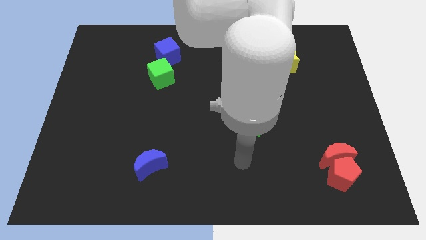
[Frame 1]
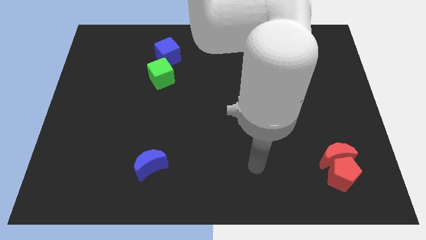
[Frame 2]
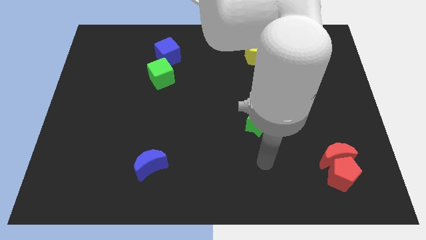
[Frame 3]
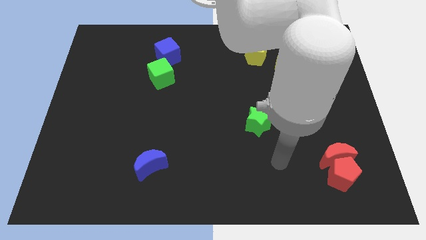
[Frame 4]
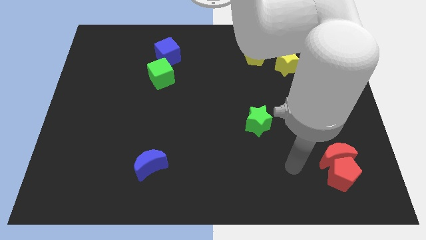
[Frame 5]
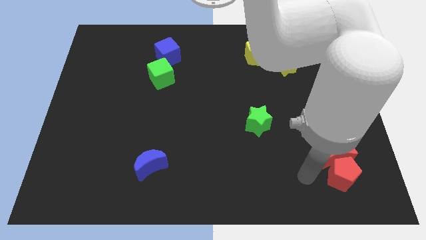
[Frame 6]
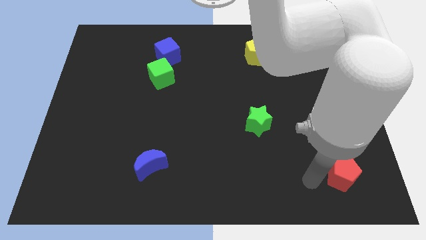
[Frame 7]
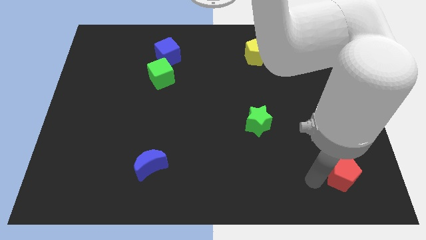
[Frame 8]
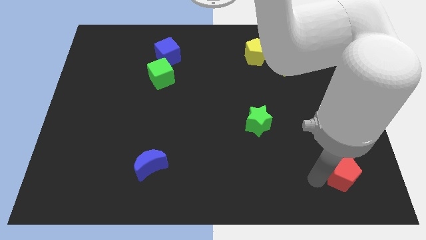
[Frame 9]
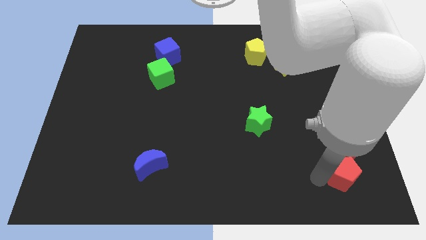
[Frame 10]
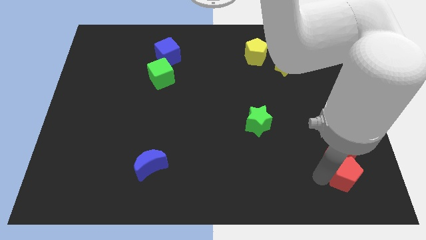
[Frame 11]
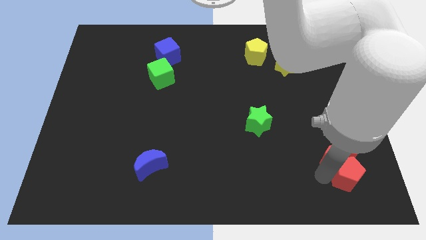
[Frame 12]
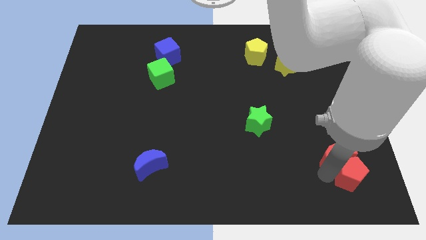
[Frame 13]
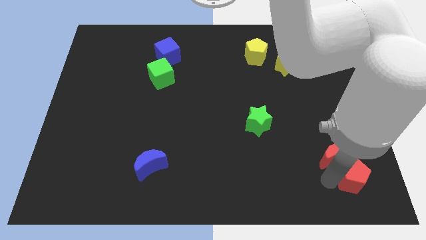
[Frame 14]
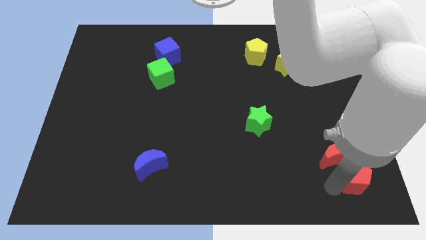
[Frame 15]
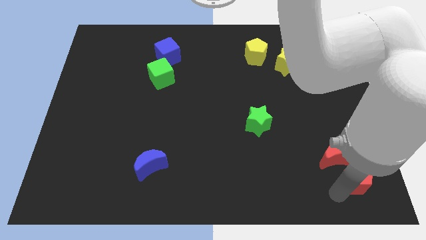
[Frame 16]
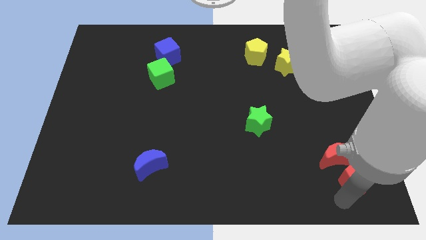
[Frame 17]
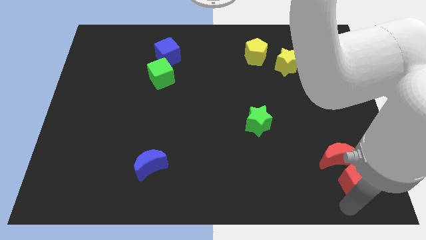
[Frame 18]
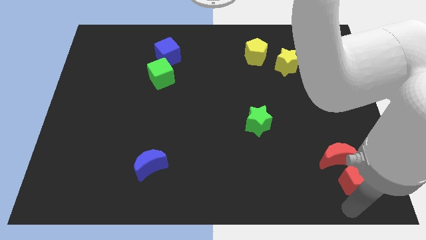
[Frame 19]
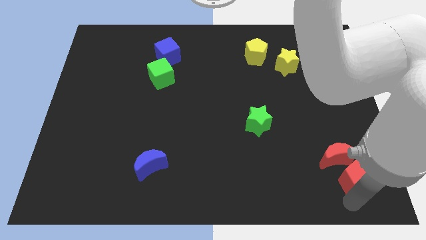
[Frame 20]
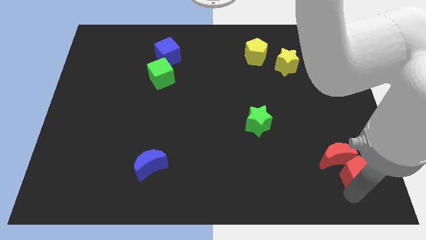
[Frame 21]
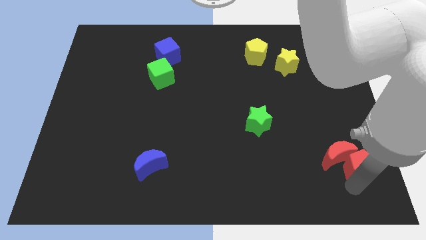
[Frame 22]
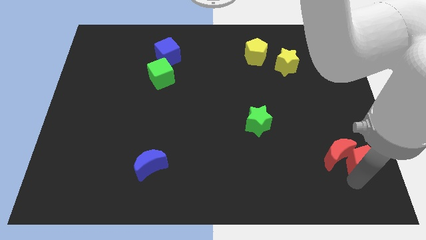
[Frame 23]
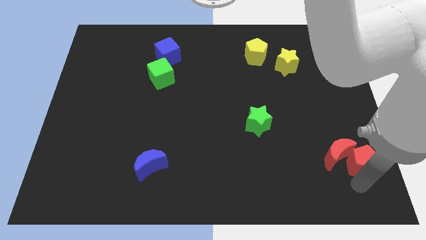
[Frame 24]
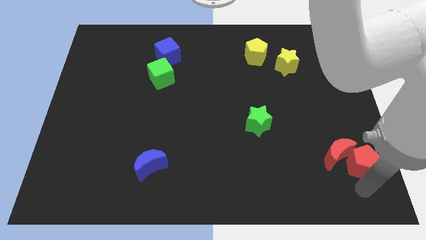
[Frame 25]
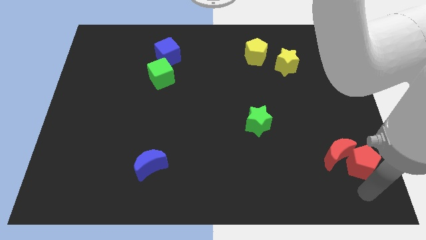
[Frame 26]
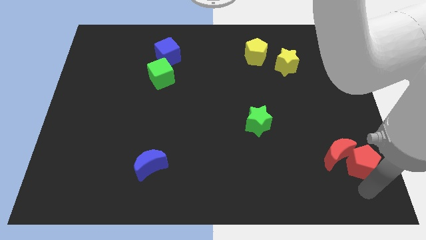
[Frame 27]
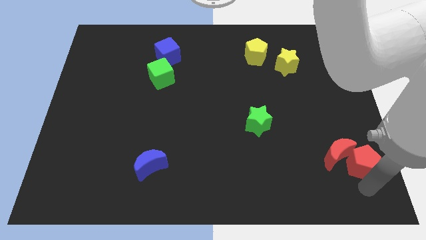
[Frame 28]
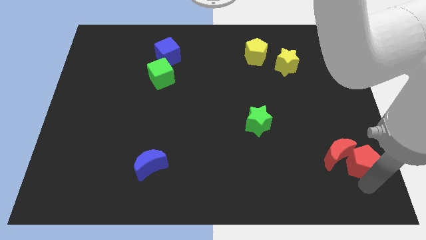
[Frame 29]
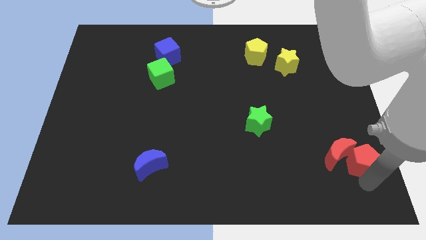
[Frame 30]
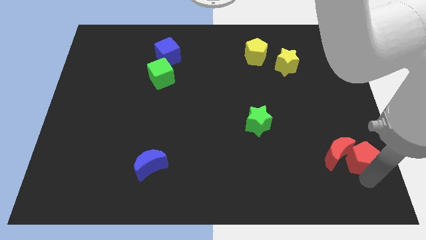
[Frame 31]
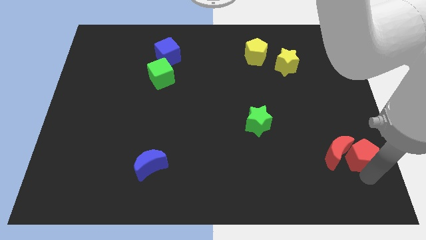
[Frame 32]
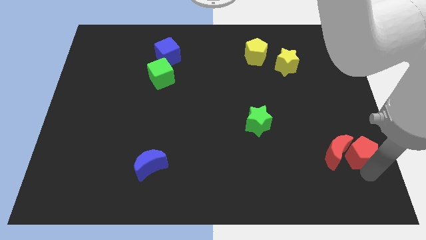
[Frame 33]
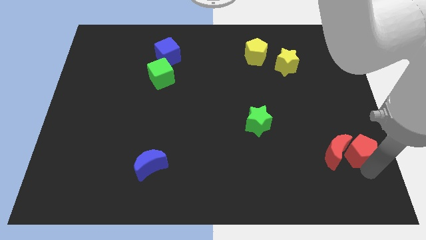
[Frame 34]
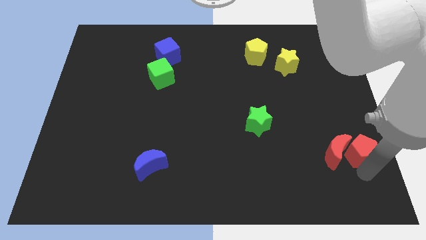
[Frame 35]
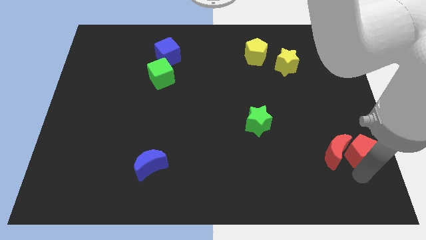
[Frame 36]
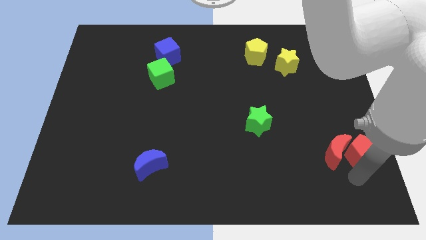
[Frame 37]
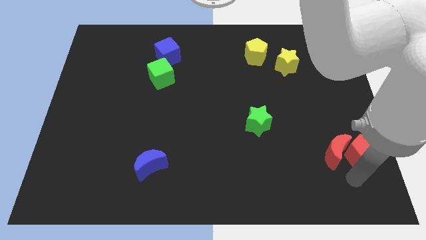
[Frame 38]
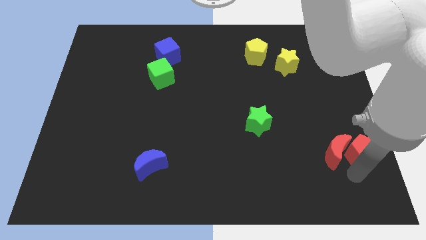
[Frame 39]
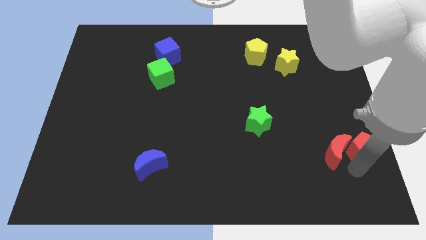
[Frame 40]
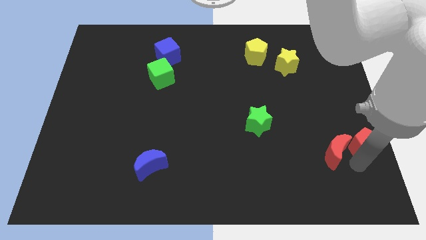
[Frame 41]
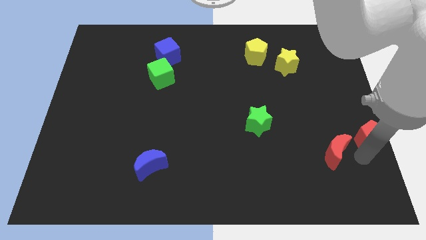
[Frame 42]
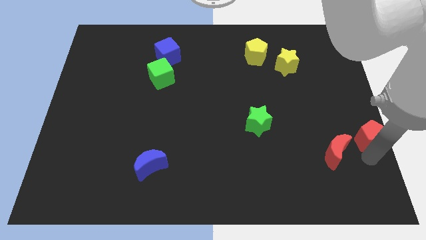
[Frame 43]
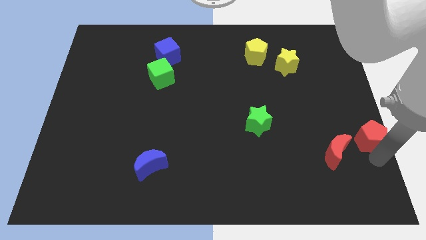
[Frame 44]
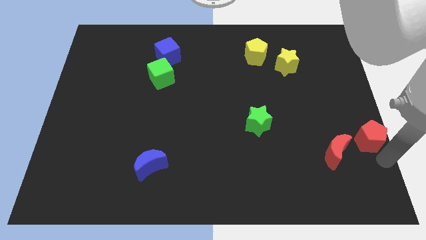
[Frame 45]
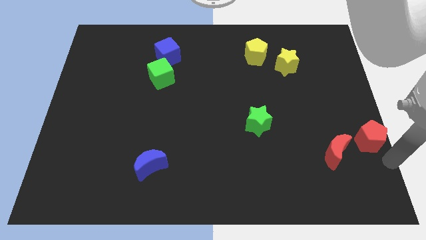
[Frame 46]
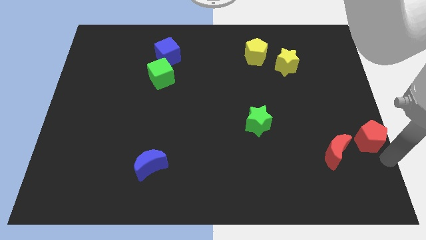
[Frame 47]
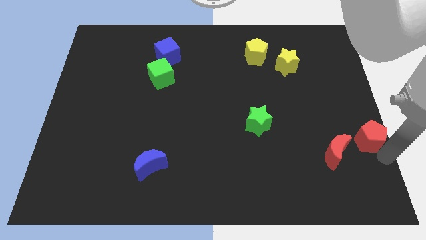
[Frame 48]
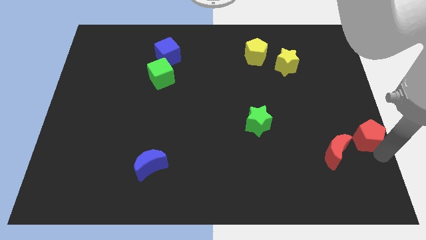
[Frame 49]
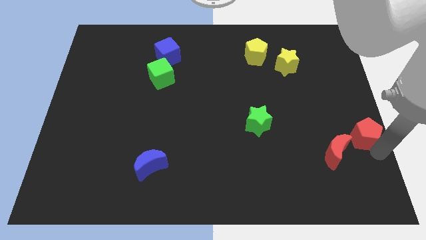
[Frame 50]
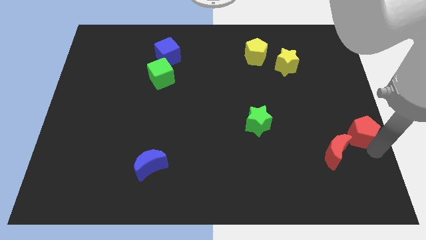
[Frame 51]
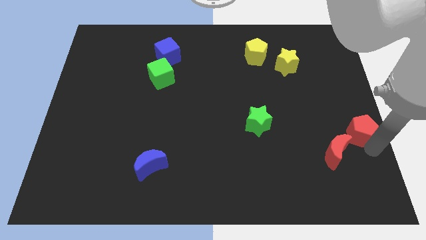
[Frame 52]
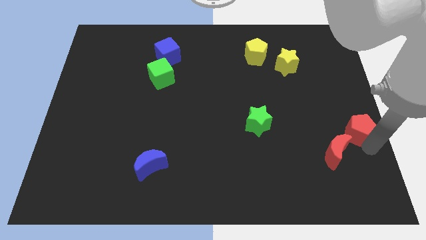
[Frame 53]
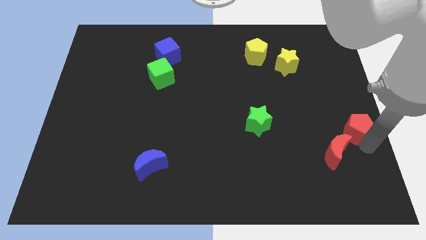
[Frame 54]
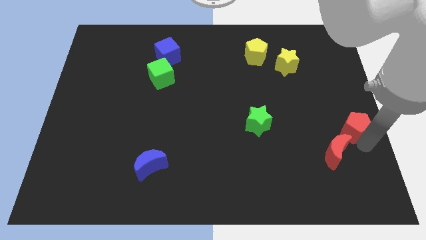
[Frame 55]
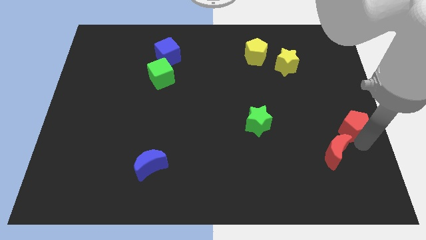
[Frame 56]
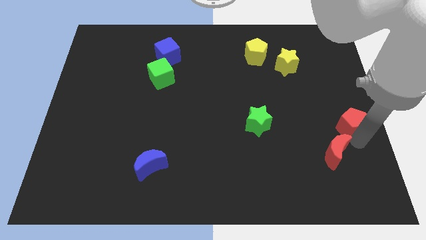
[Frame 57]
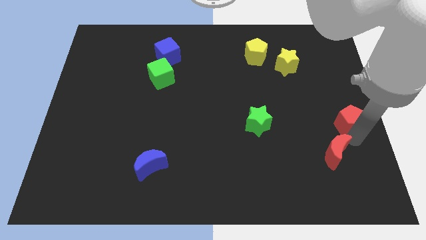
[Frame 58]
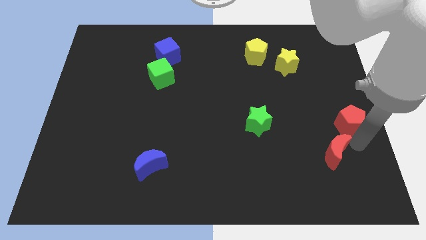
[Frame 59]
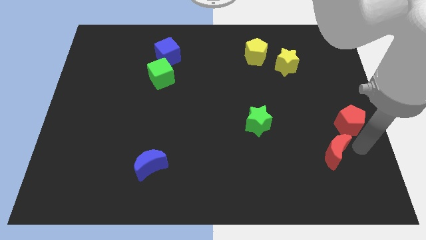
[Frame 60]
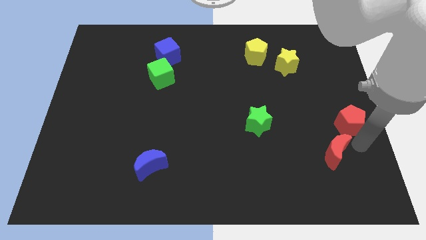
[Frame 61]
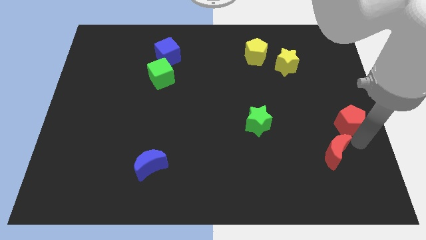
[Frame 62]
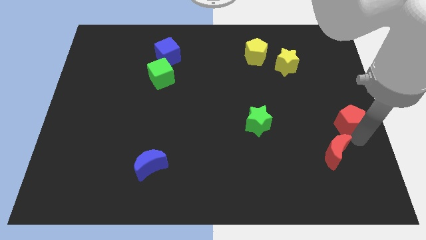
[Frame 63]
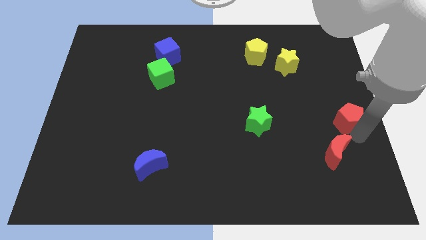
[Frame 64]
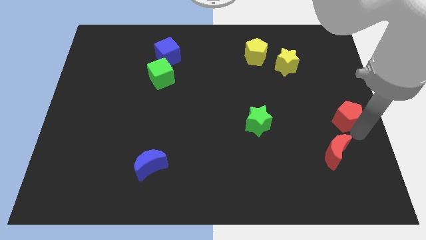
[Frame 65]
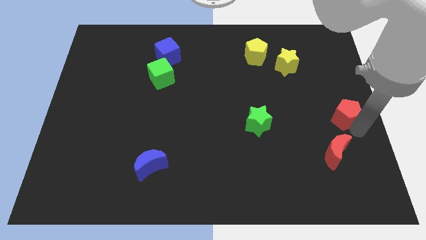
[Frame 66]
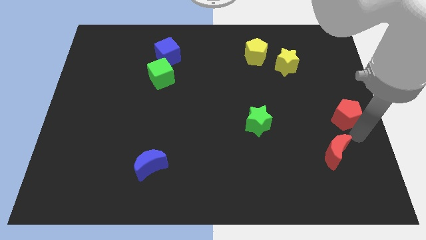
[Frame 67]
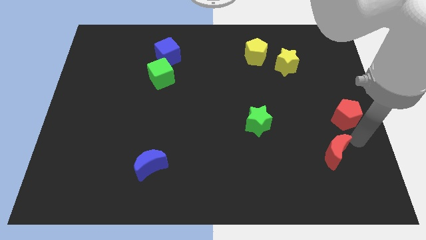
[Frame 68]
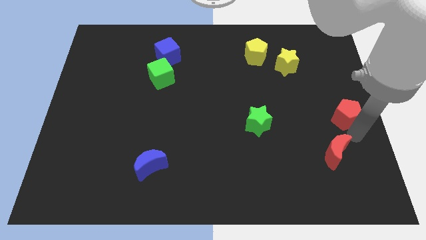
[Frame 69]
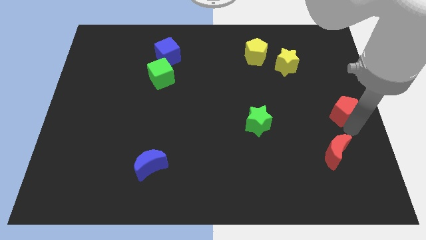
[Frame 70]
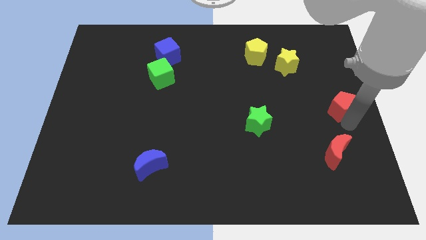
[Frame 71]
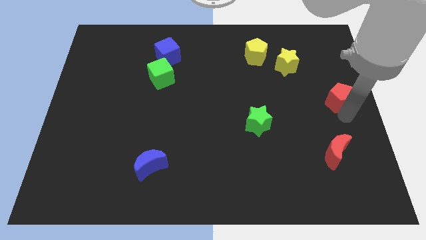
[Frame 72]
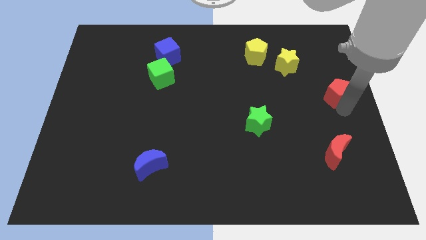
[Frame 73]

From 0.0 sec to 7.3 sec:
move the red pentagon up

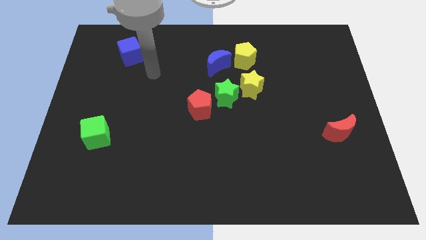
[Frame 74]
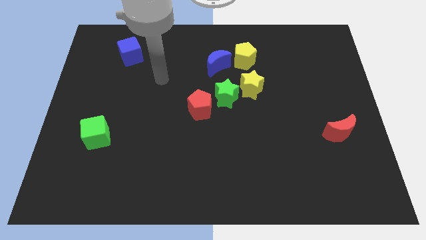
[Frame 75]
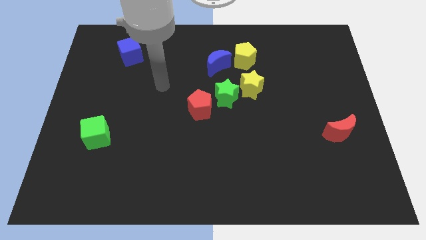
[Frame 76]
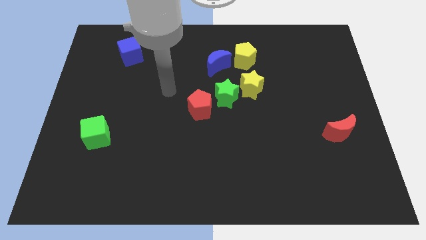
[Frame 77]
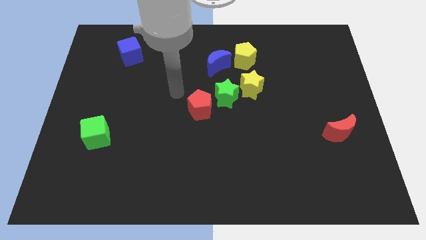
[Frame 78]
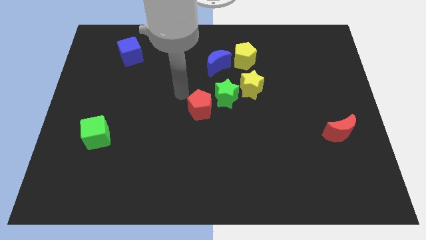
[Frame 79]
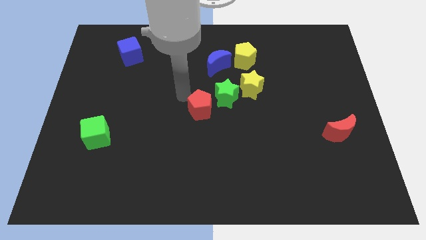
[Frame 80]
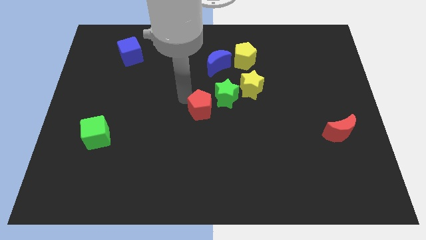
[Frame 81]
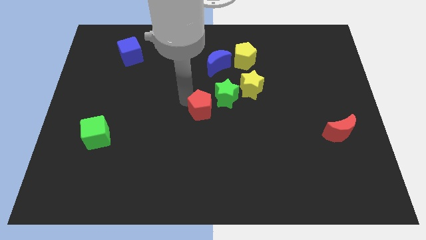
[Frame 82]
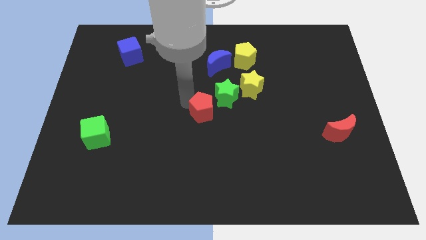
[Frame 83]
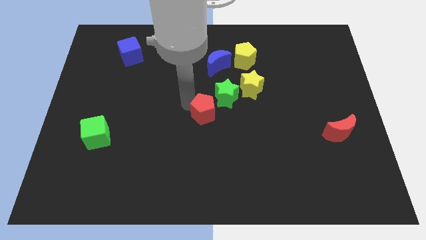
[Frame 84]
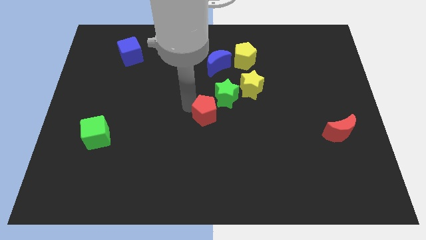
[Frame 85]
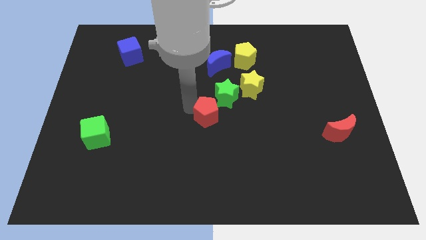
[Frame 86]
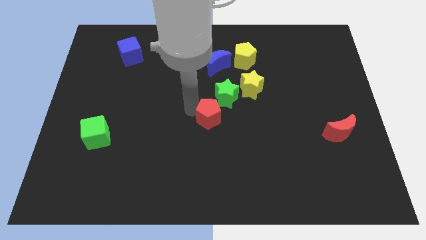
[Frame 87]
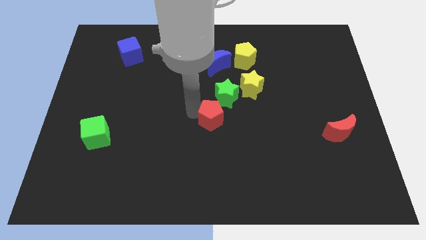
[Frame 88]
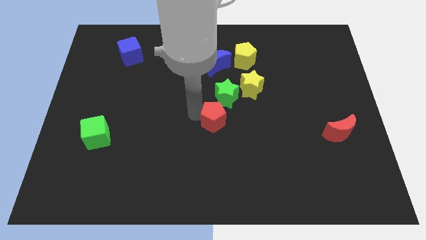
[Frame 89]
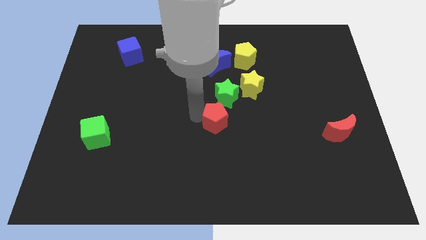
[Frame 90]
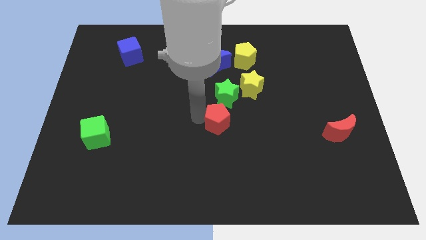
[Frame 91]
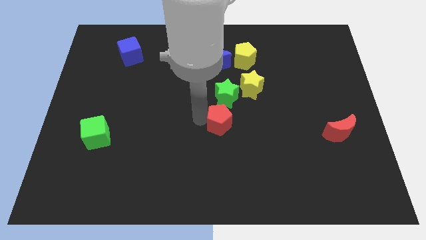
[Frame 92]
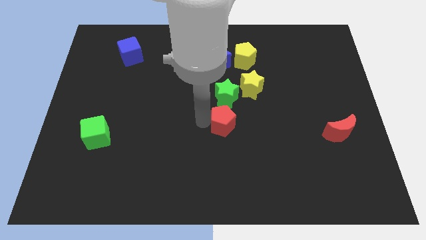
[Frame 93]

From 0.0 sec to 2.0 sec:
move the red pentagon a little bit down and to the right
